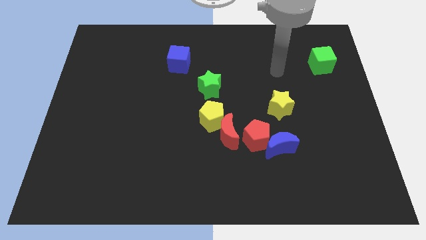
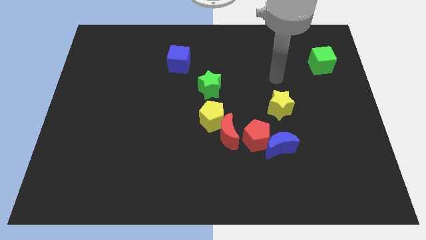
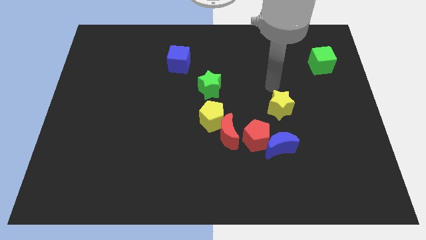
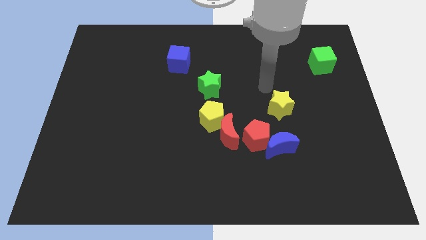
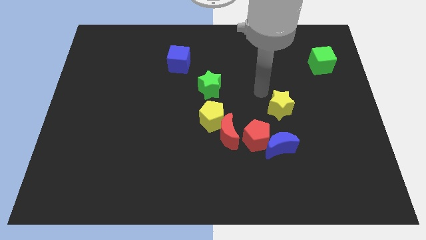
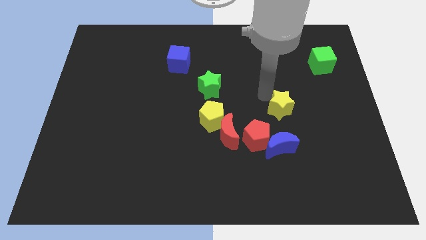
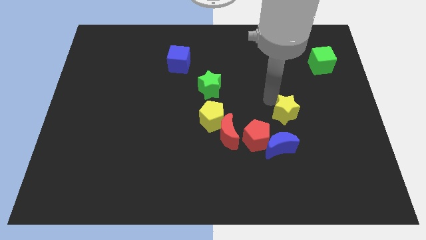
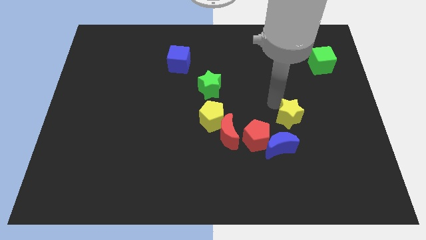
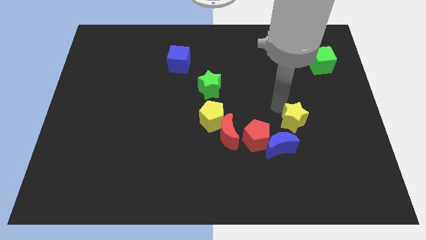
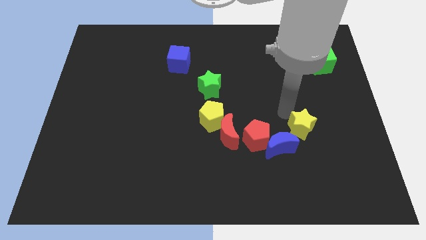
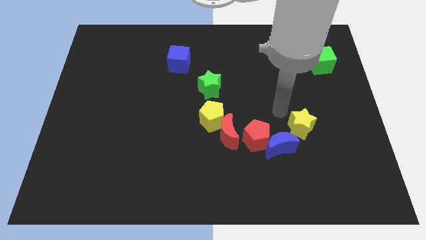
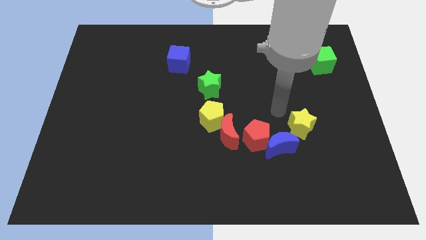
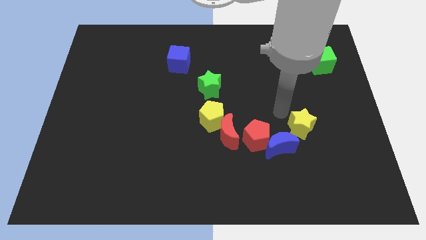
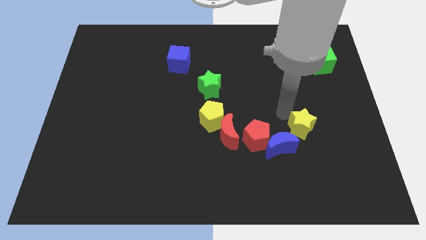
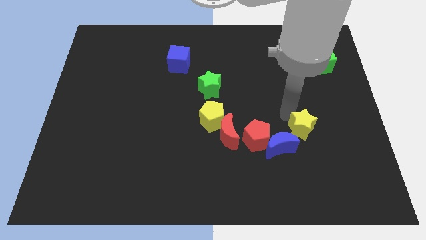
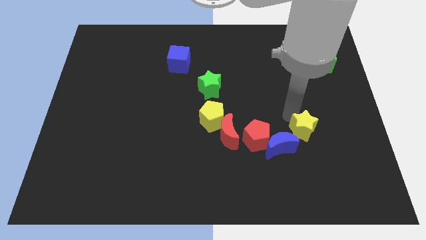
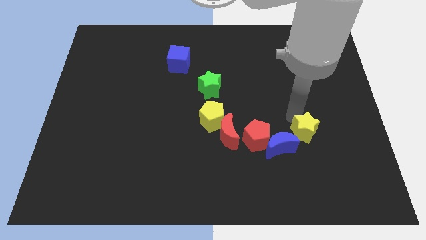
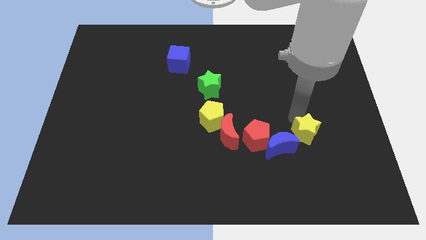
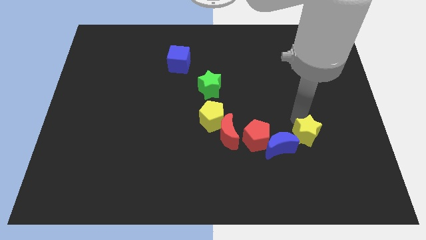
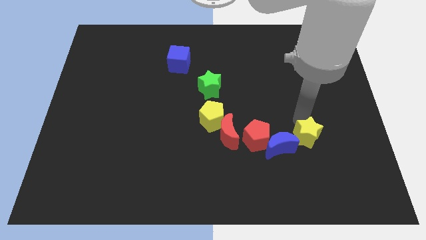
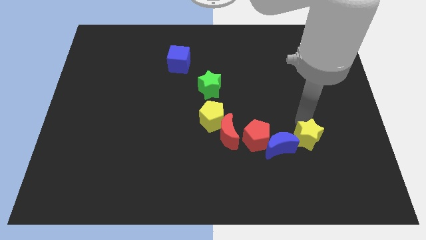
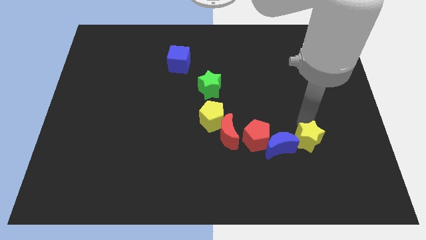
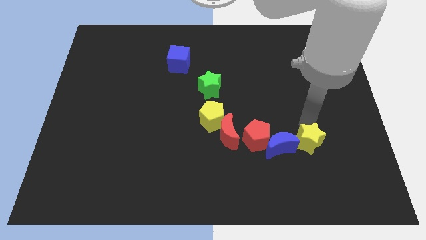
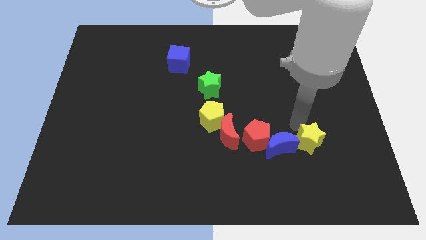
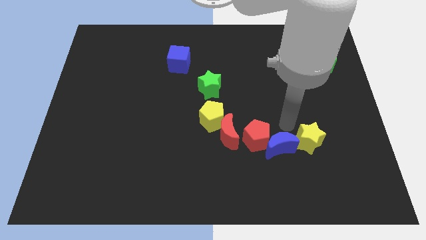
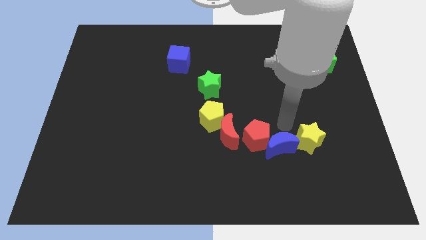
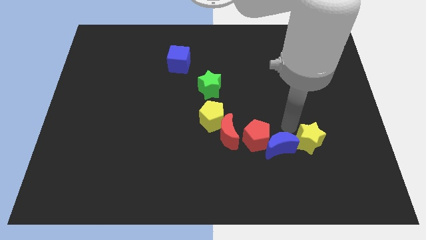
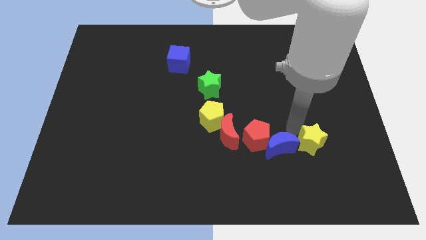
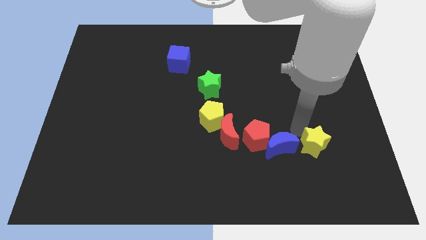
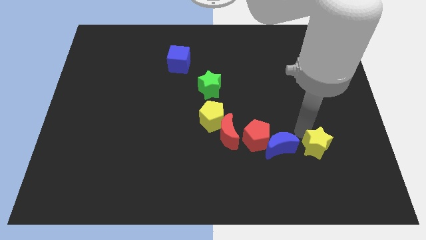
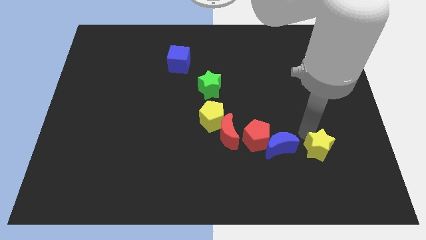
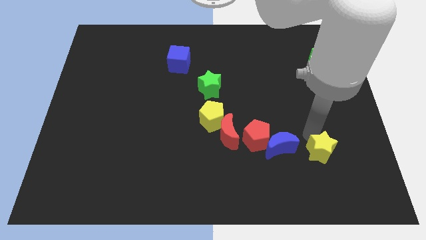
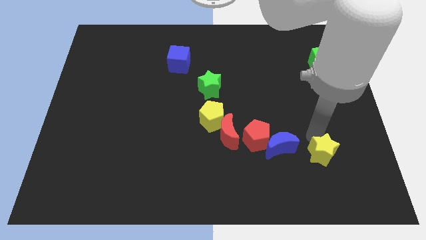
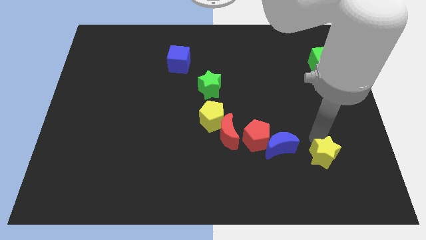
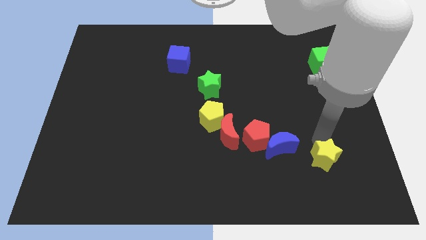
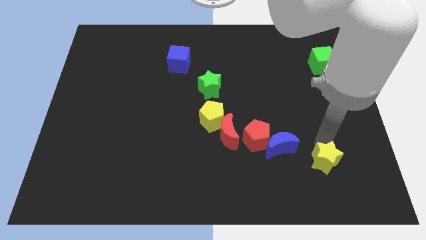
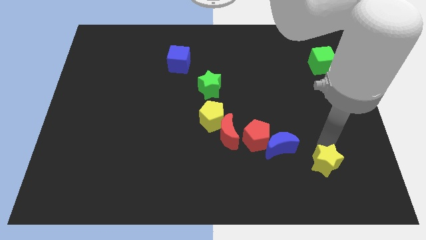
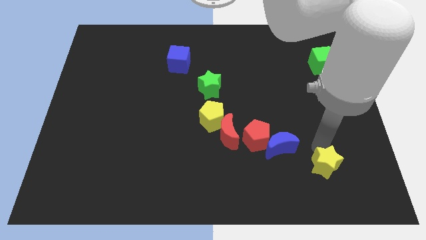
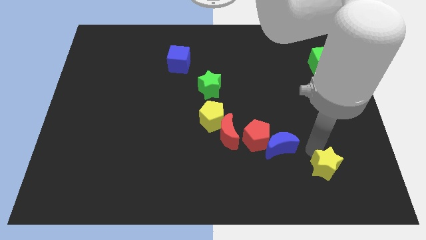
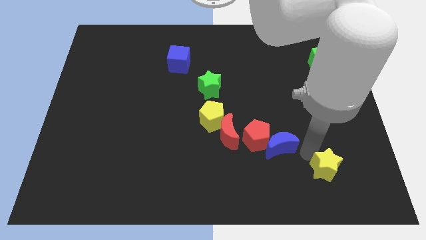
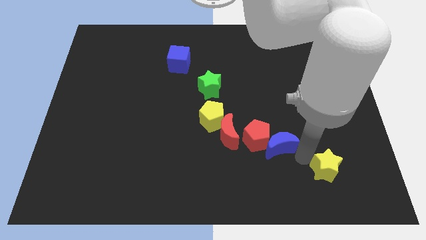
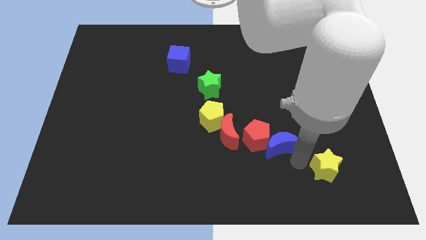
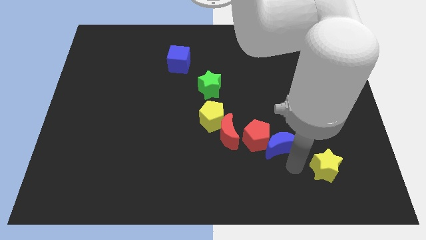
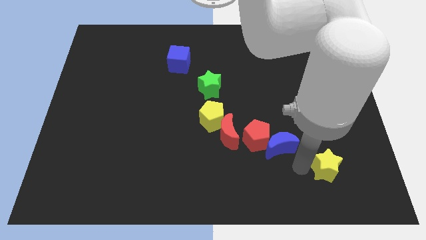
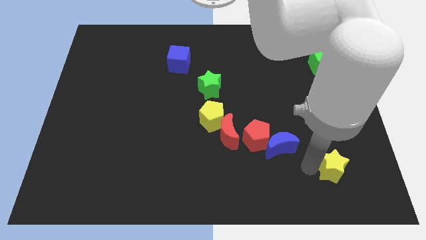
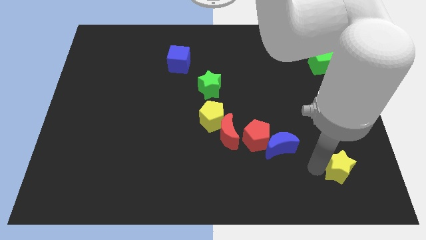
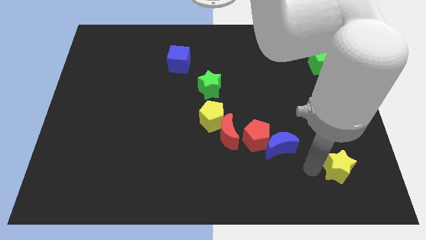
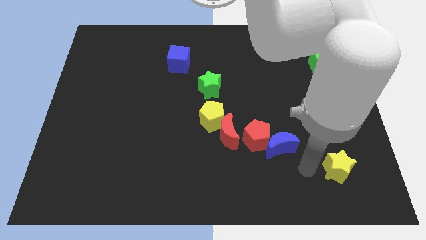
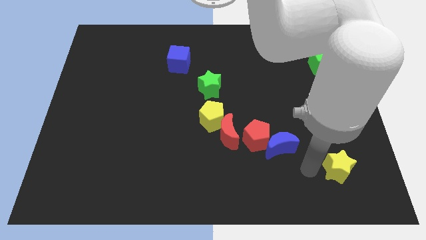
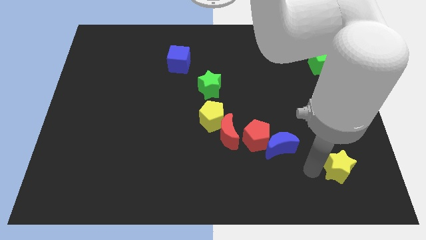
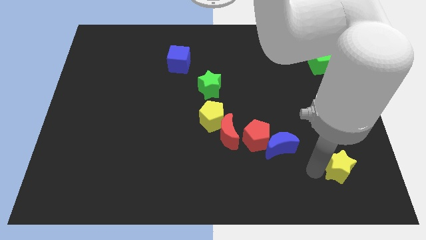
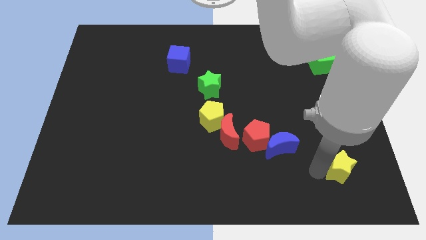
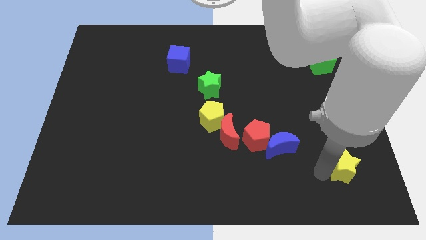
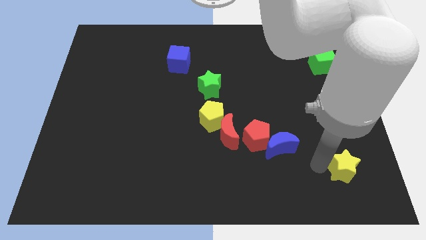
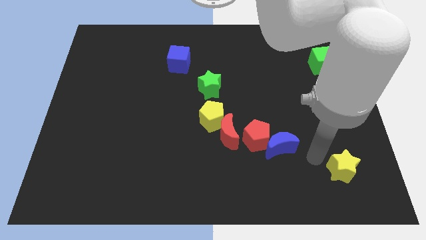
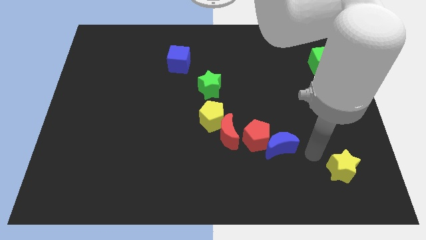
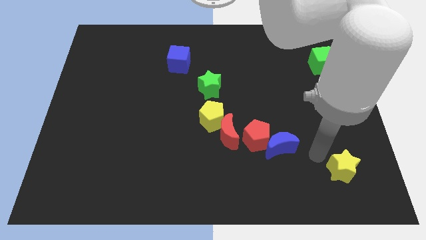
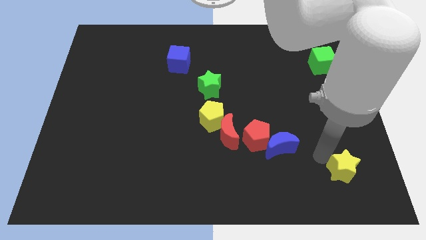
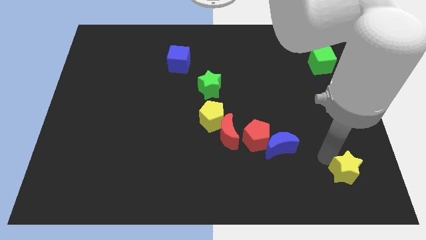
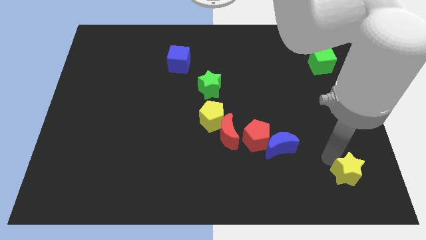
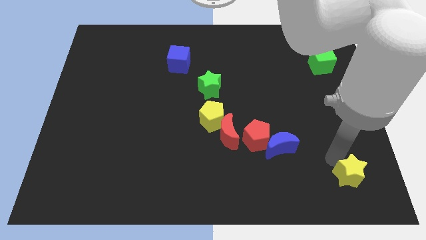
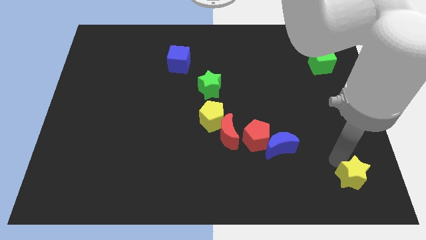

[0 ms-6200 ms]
push the yellow star to the bottom right corner
